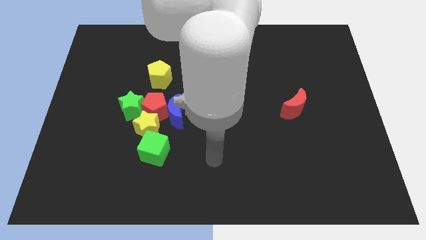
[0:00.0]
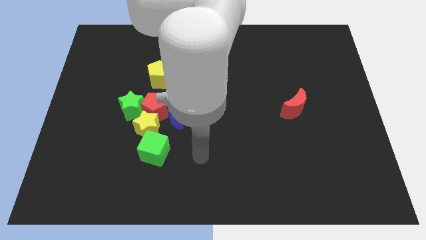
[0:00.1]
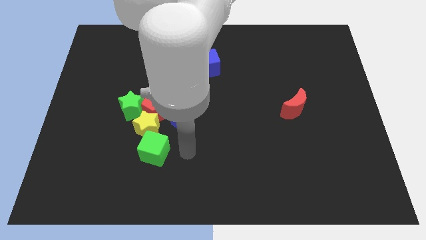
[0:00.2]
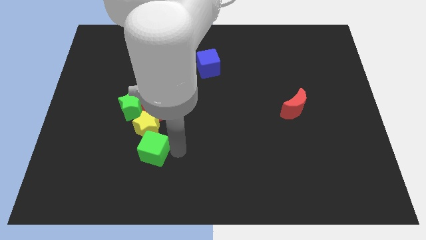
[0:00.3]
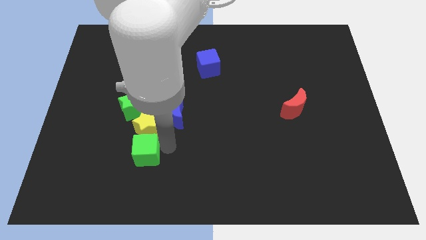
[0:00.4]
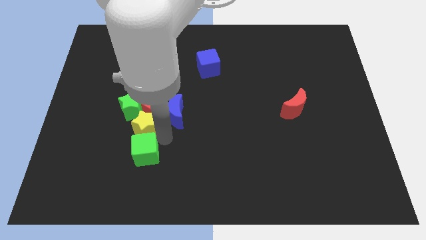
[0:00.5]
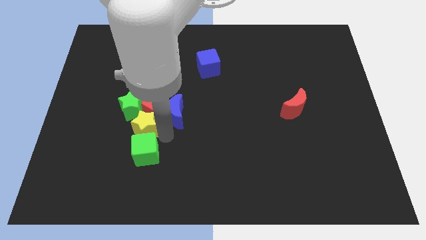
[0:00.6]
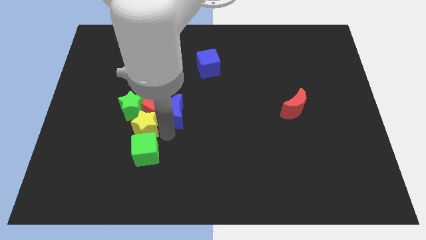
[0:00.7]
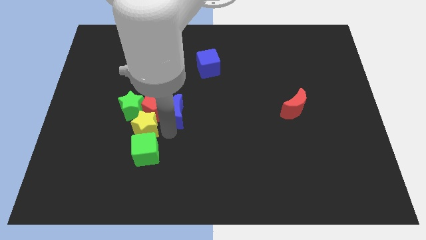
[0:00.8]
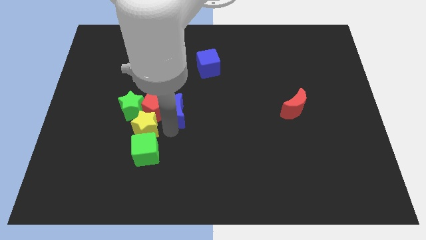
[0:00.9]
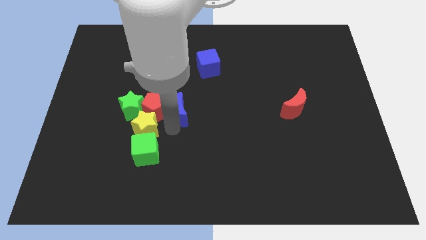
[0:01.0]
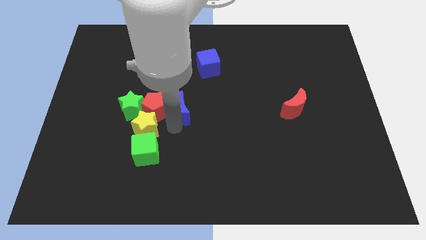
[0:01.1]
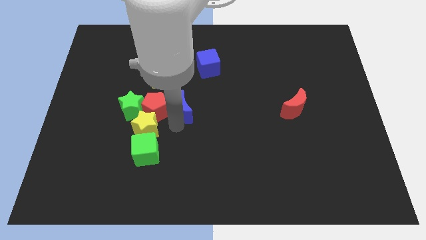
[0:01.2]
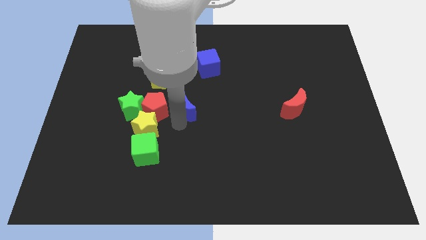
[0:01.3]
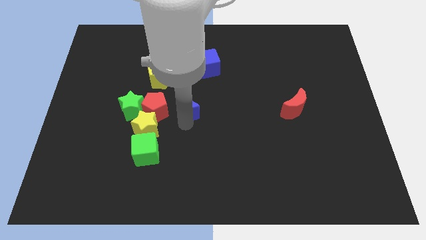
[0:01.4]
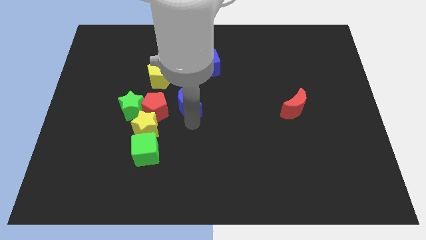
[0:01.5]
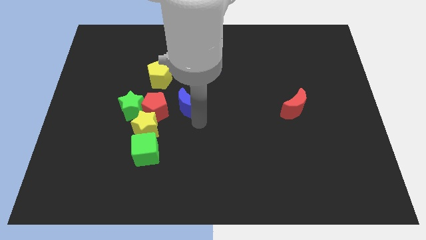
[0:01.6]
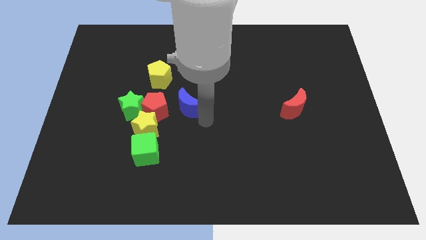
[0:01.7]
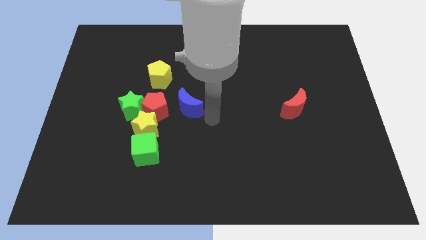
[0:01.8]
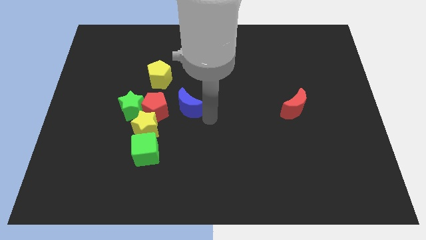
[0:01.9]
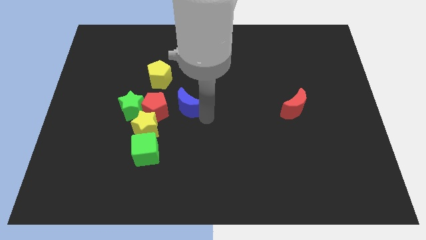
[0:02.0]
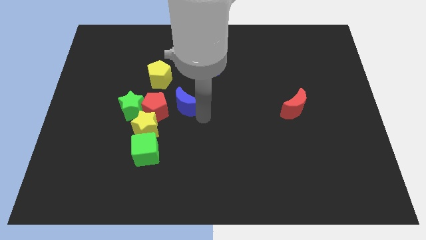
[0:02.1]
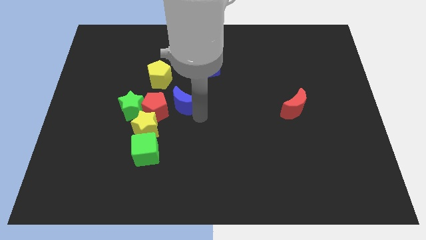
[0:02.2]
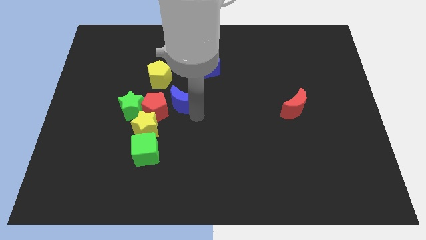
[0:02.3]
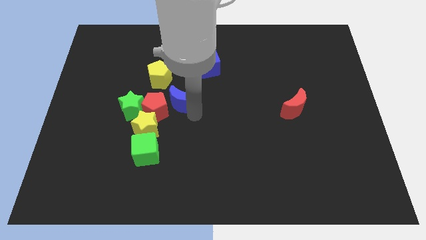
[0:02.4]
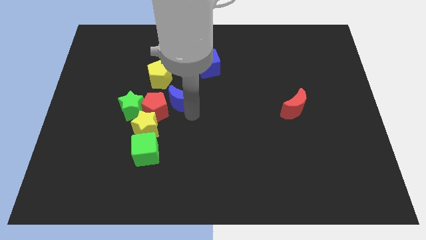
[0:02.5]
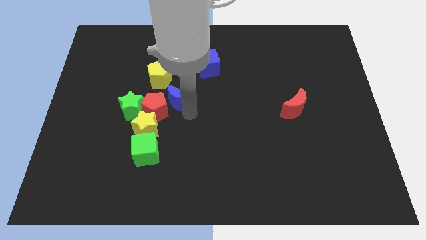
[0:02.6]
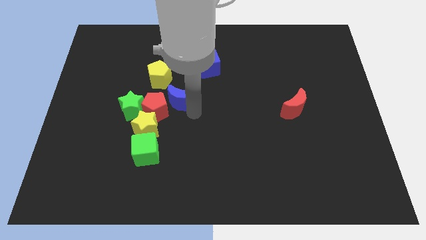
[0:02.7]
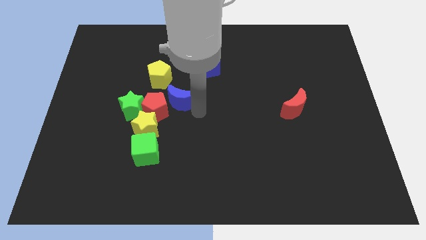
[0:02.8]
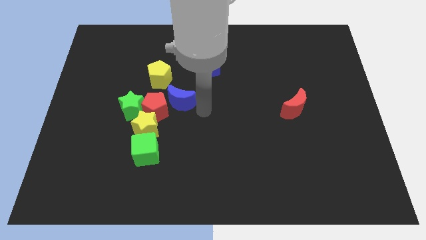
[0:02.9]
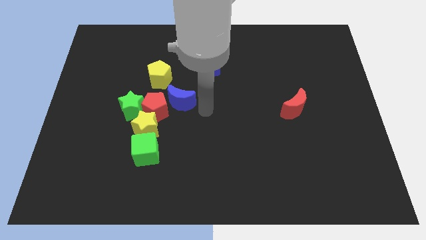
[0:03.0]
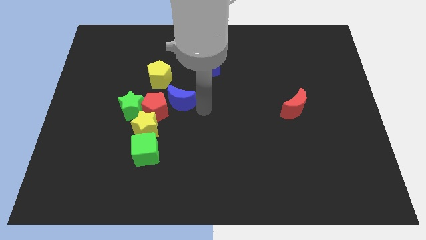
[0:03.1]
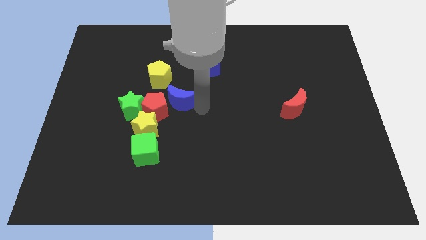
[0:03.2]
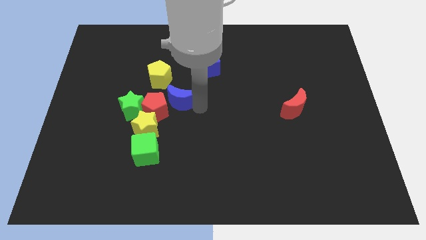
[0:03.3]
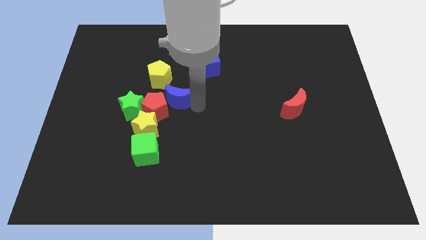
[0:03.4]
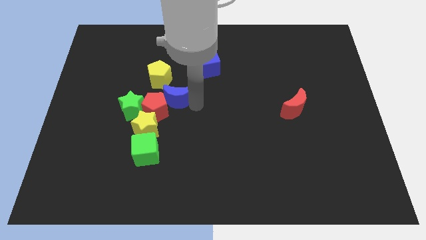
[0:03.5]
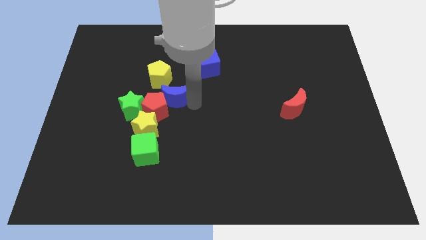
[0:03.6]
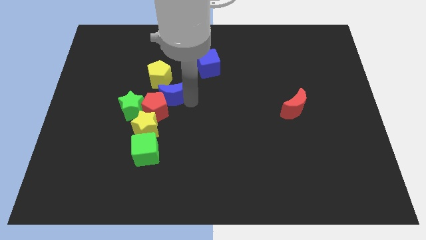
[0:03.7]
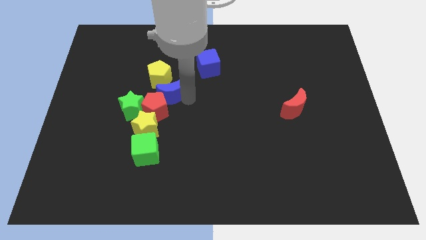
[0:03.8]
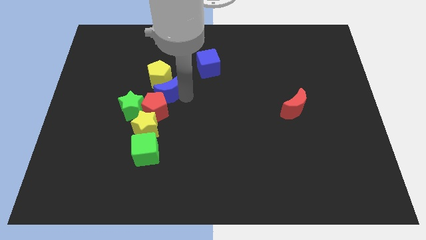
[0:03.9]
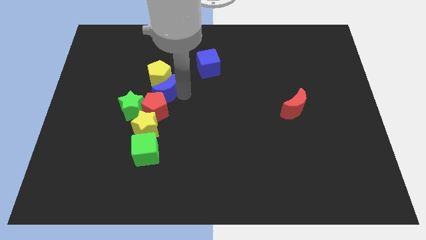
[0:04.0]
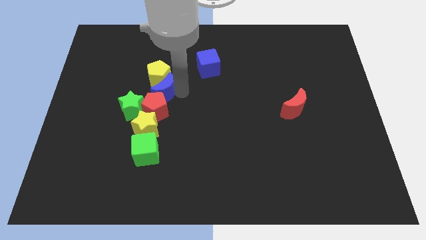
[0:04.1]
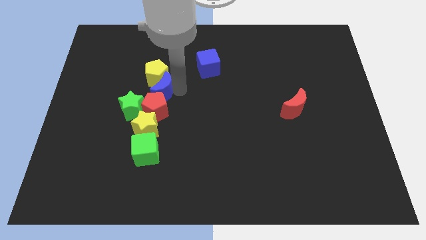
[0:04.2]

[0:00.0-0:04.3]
slightly slide the blue moon diagonally up and to the left

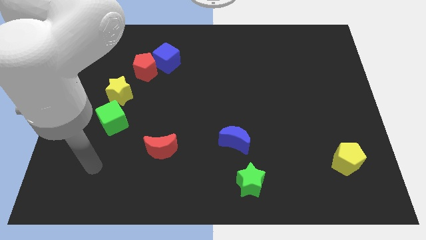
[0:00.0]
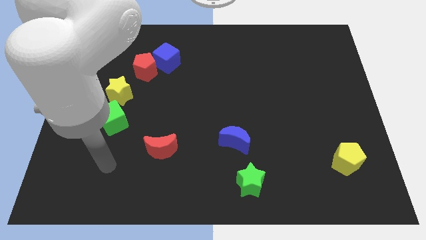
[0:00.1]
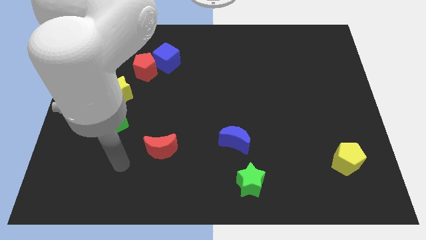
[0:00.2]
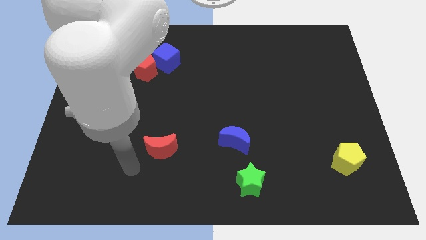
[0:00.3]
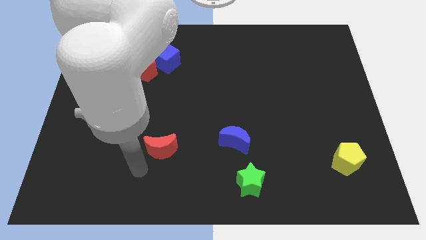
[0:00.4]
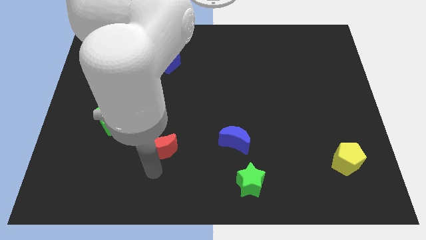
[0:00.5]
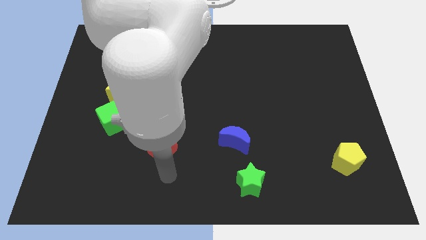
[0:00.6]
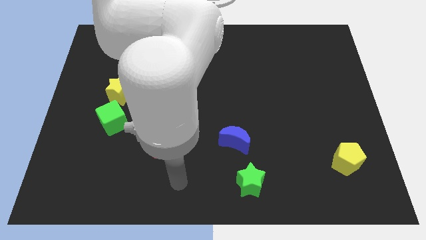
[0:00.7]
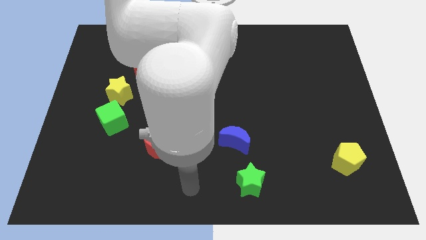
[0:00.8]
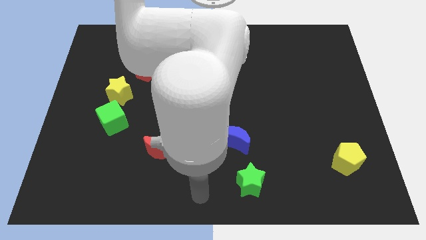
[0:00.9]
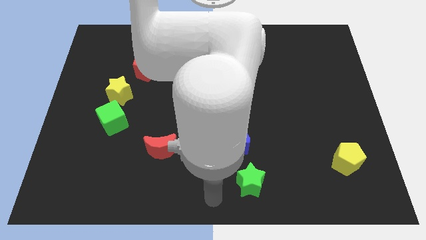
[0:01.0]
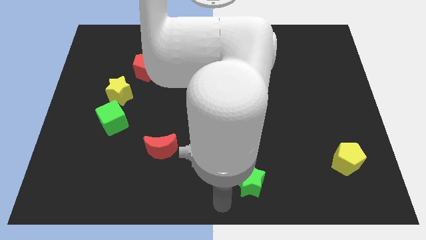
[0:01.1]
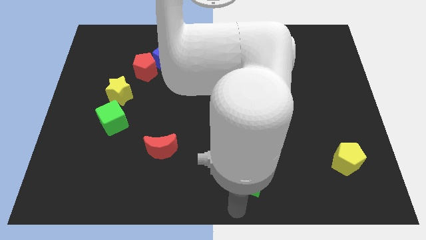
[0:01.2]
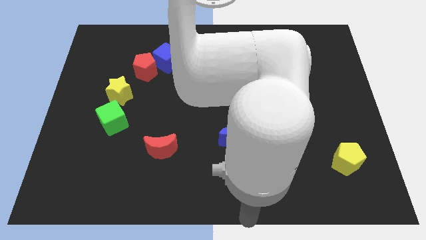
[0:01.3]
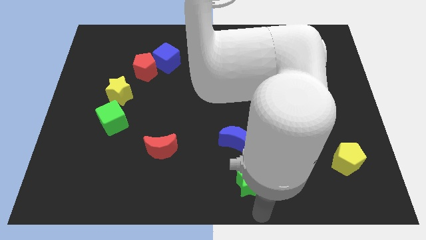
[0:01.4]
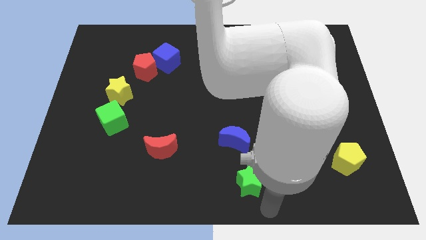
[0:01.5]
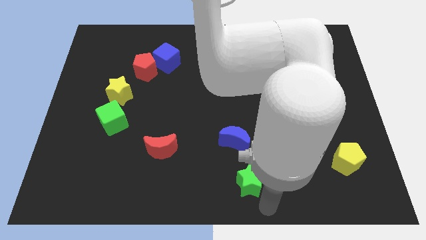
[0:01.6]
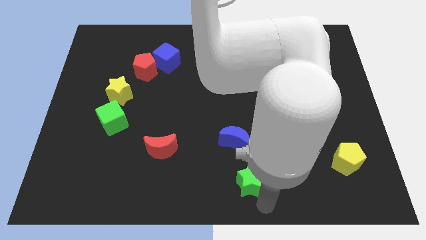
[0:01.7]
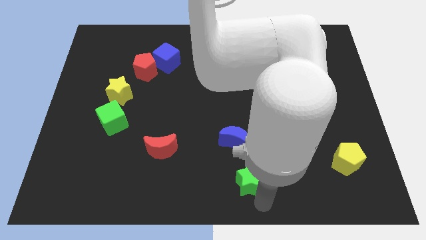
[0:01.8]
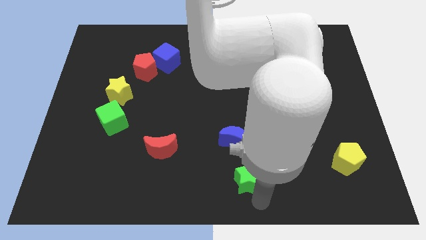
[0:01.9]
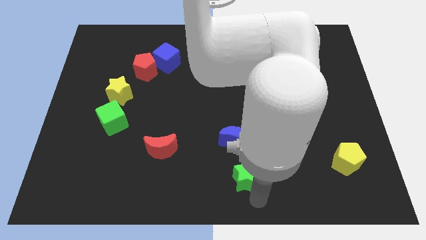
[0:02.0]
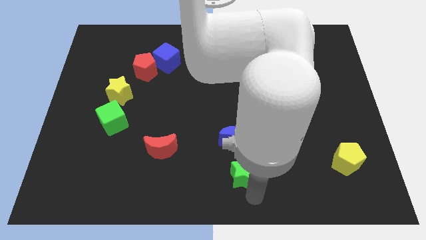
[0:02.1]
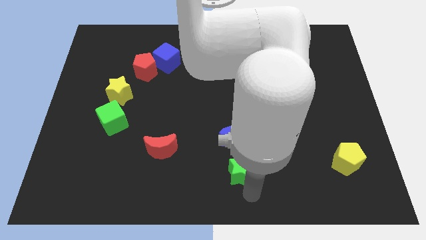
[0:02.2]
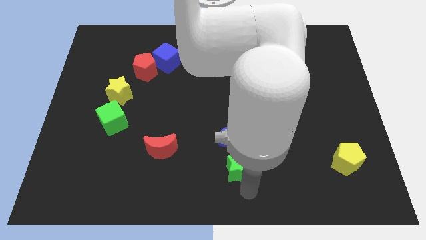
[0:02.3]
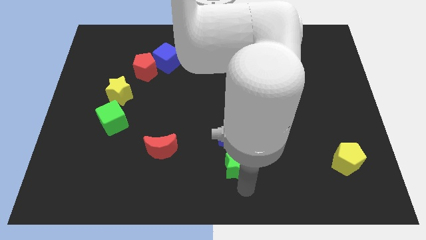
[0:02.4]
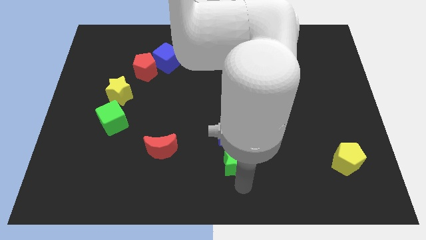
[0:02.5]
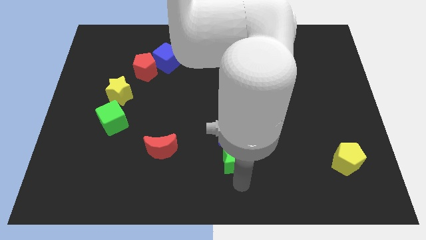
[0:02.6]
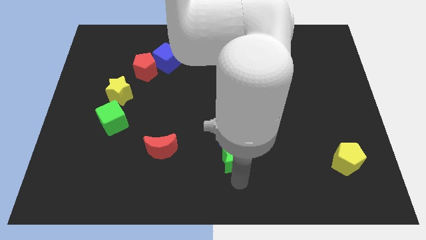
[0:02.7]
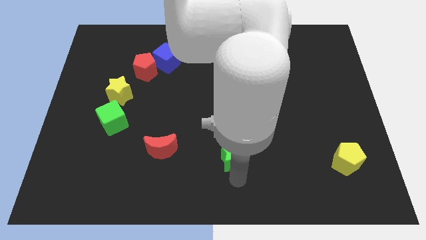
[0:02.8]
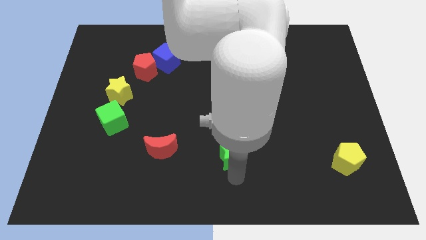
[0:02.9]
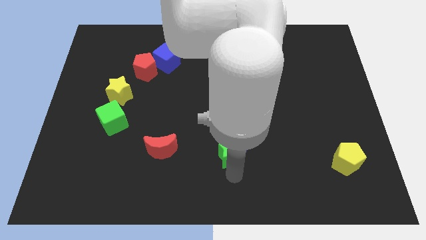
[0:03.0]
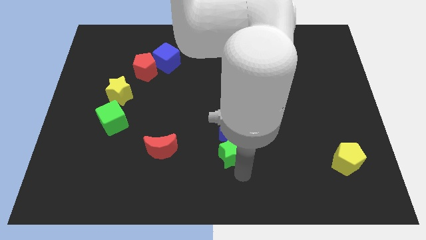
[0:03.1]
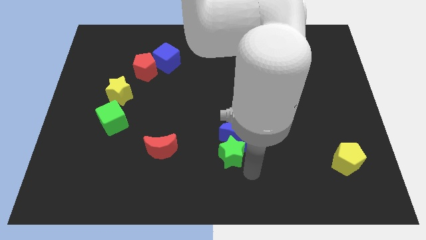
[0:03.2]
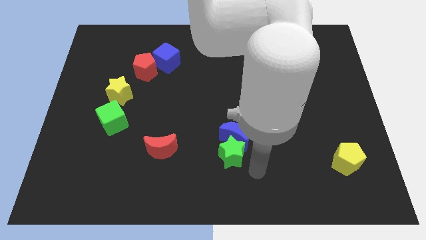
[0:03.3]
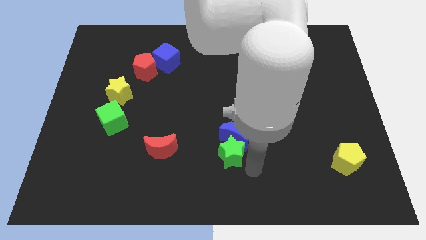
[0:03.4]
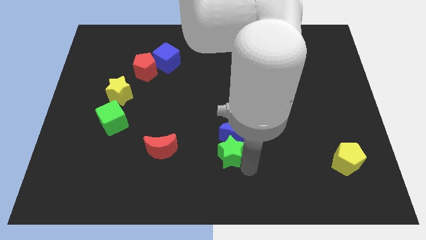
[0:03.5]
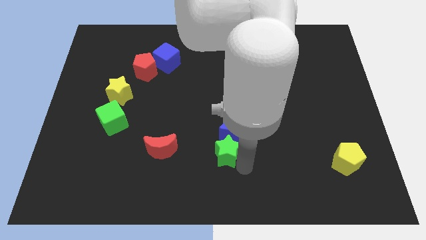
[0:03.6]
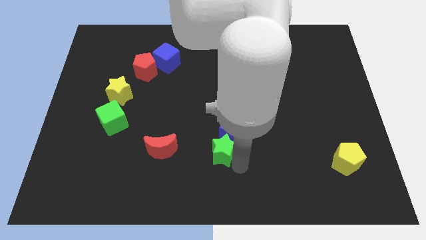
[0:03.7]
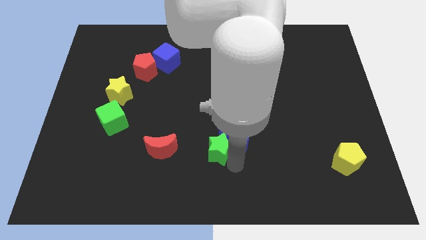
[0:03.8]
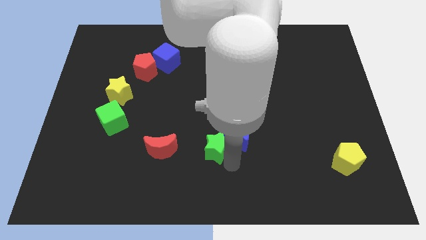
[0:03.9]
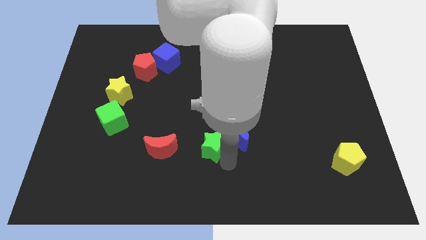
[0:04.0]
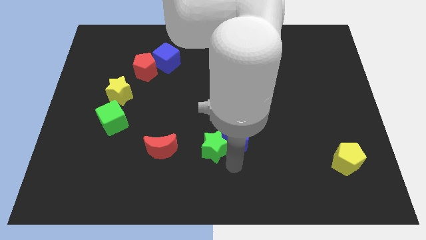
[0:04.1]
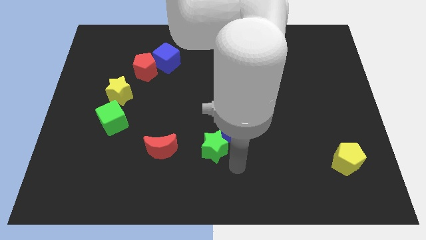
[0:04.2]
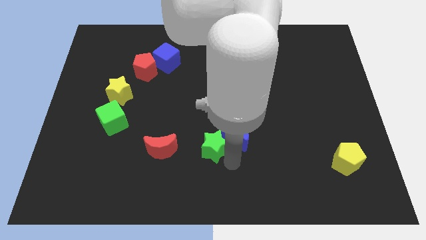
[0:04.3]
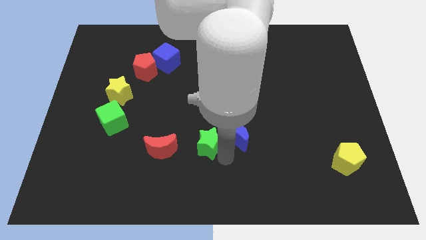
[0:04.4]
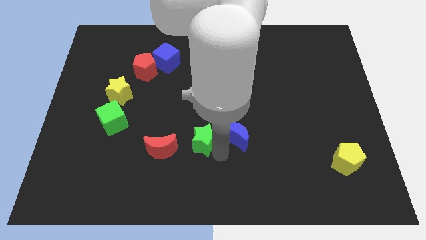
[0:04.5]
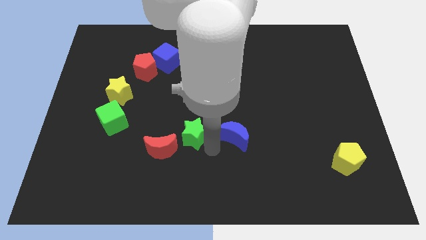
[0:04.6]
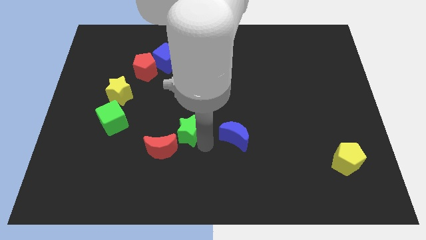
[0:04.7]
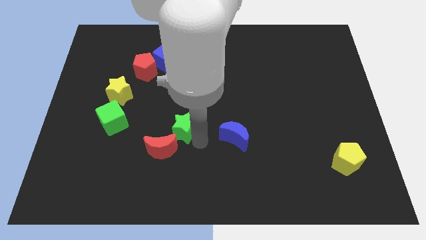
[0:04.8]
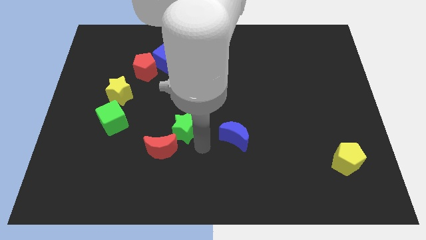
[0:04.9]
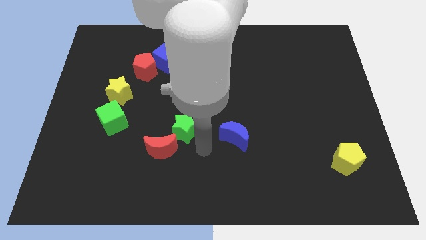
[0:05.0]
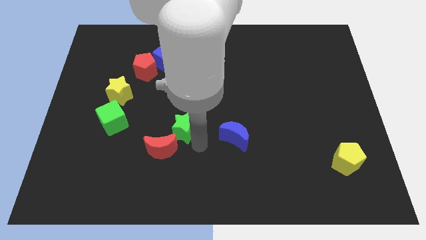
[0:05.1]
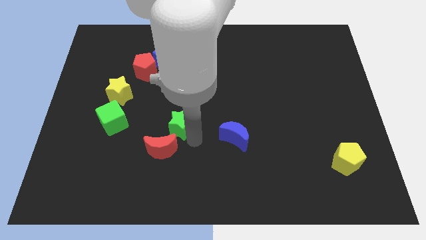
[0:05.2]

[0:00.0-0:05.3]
push the green star upwards and then left
